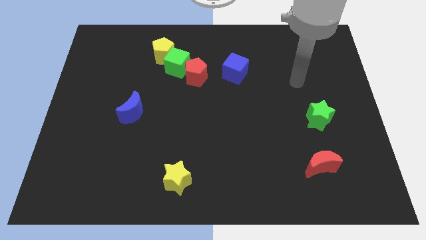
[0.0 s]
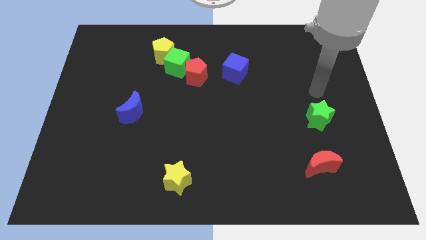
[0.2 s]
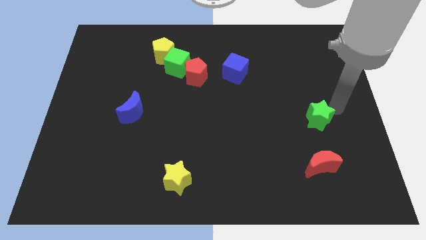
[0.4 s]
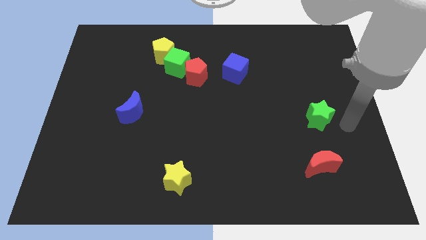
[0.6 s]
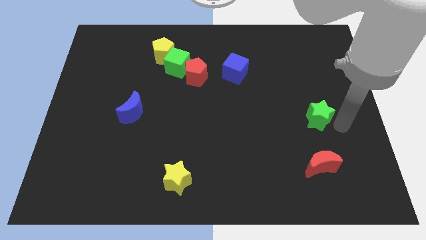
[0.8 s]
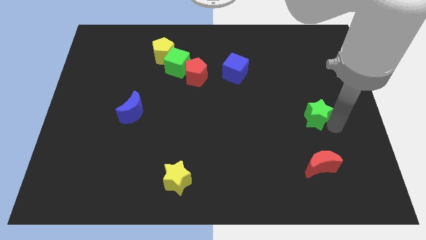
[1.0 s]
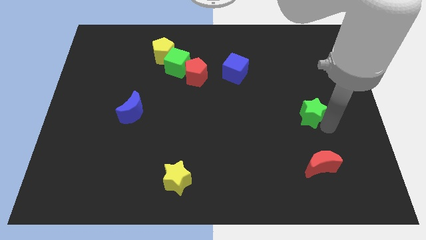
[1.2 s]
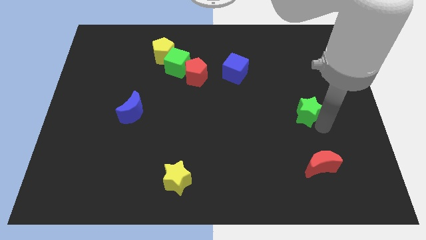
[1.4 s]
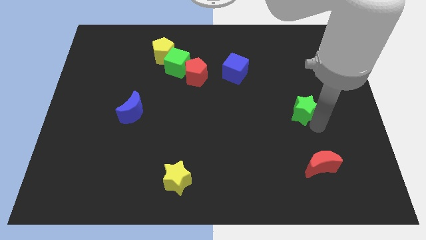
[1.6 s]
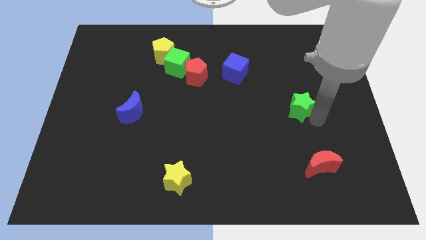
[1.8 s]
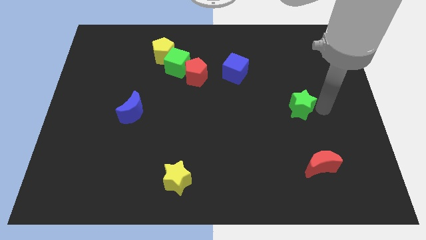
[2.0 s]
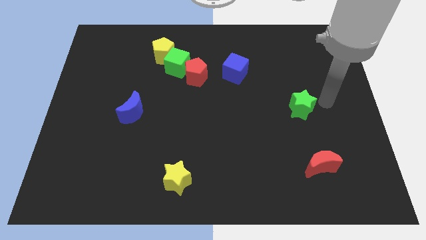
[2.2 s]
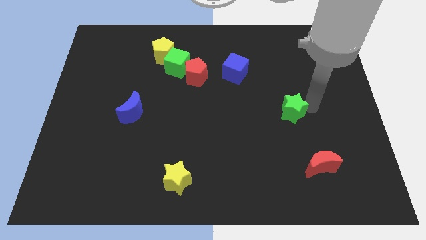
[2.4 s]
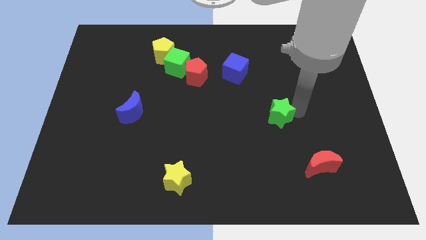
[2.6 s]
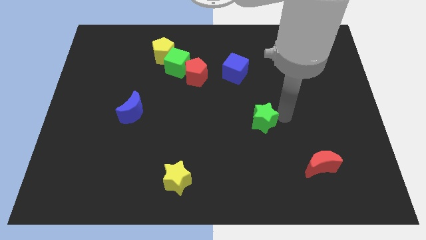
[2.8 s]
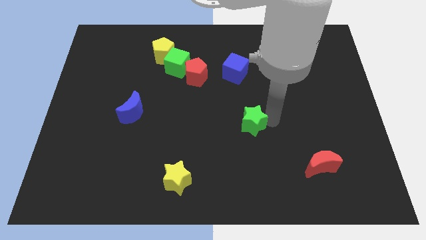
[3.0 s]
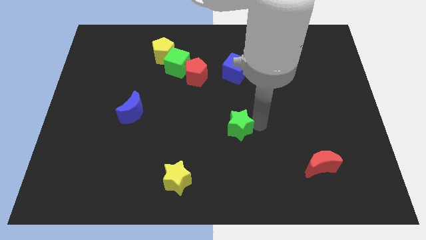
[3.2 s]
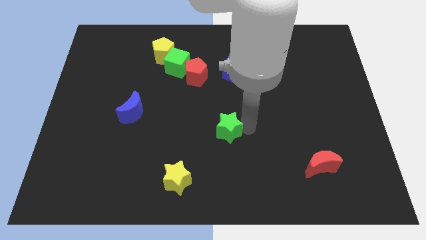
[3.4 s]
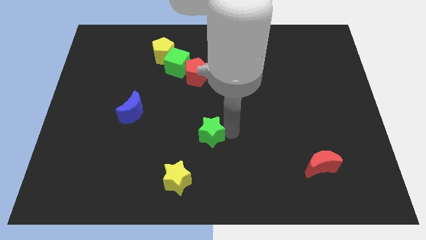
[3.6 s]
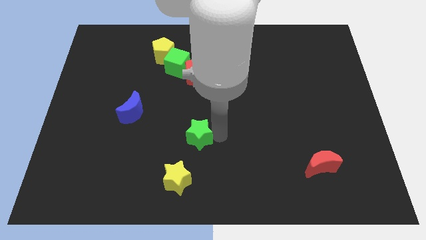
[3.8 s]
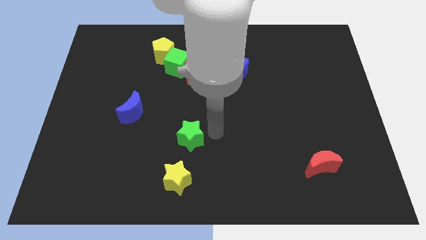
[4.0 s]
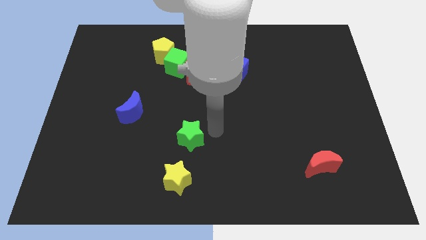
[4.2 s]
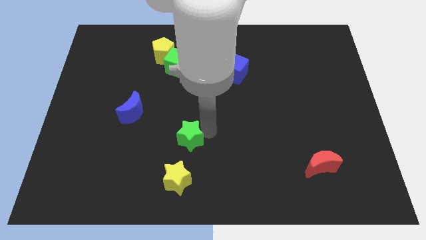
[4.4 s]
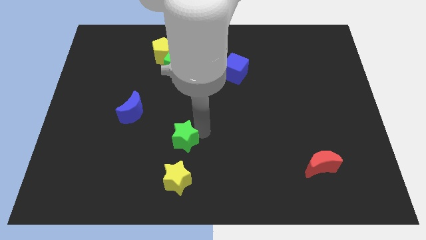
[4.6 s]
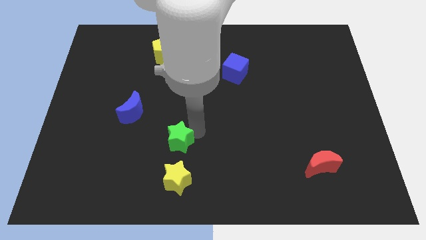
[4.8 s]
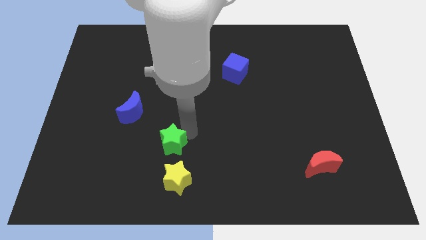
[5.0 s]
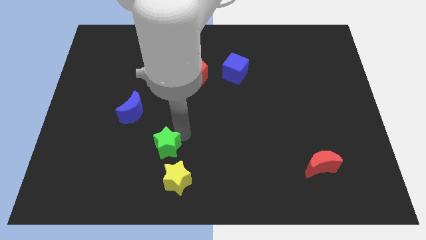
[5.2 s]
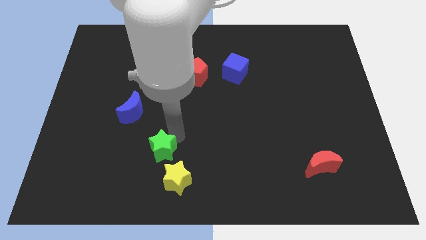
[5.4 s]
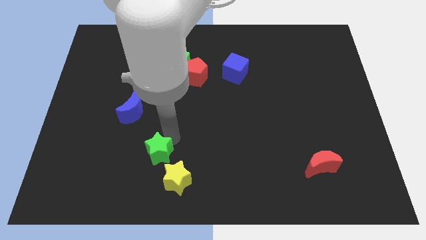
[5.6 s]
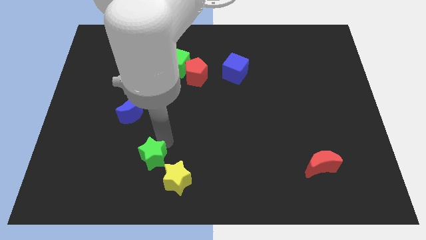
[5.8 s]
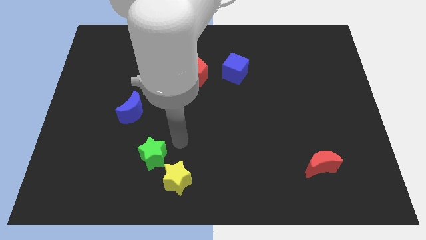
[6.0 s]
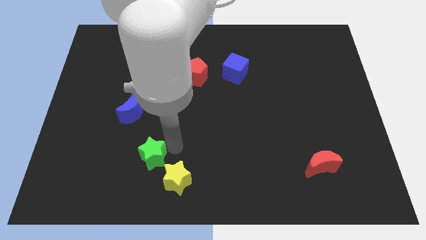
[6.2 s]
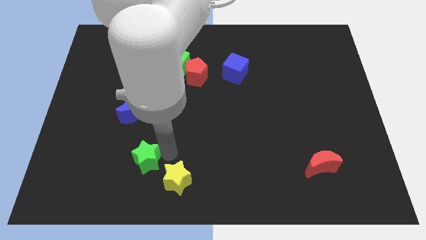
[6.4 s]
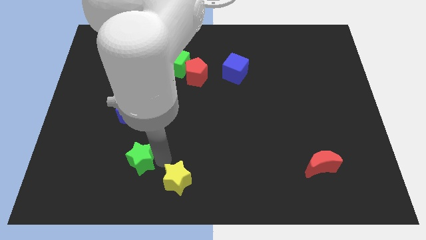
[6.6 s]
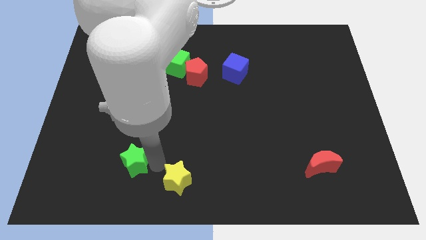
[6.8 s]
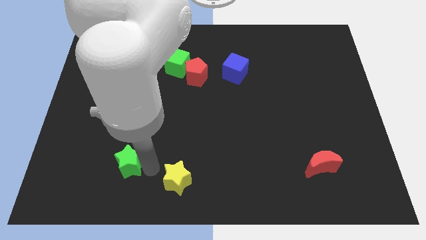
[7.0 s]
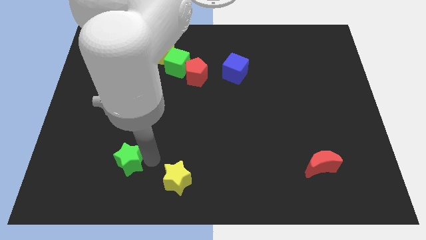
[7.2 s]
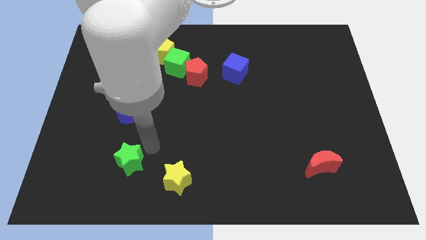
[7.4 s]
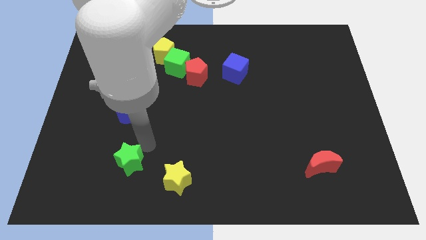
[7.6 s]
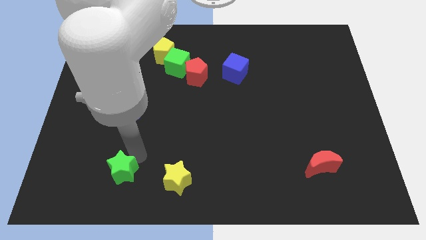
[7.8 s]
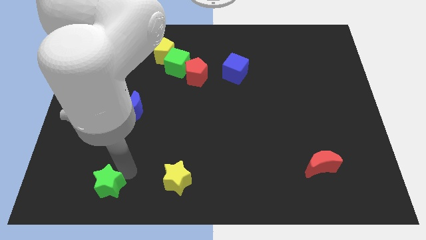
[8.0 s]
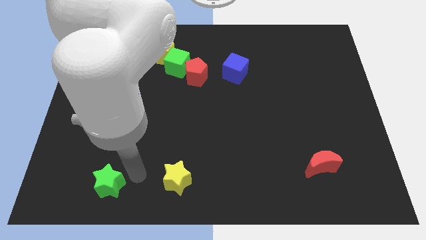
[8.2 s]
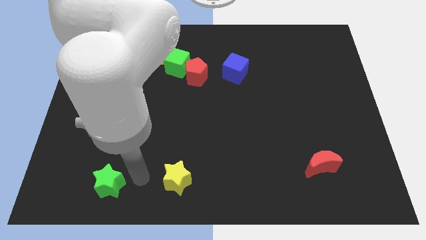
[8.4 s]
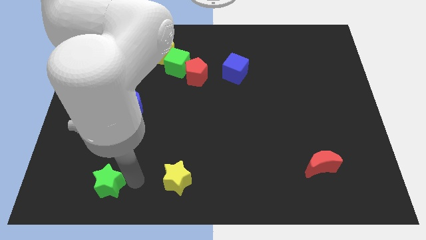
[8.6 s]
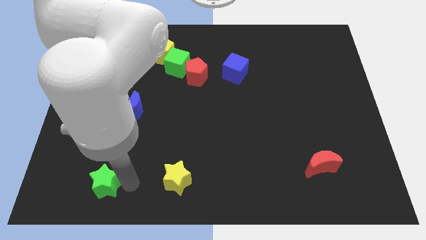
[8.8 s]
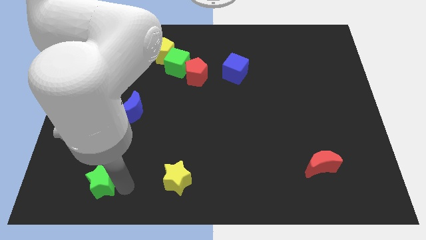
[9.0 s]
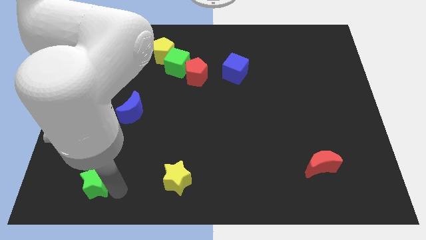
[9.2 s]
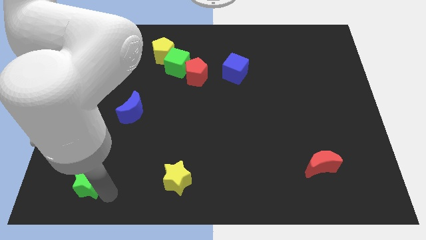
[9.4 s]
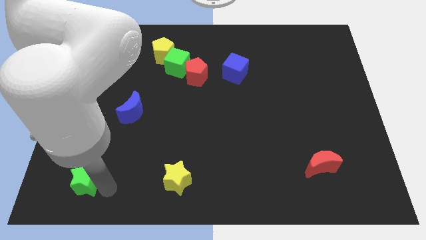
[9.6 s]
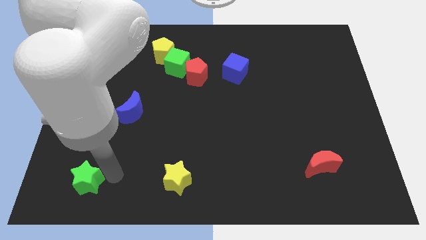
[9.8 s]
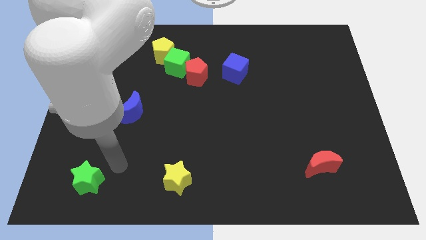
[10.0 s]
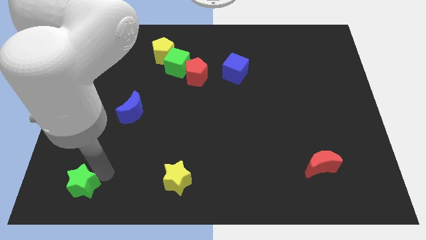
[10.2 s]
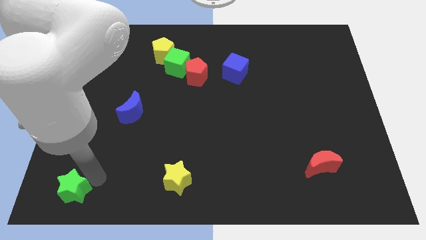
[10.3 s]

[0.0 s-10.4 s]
slide the green star to the bottom left corner
